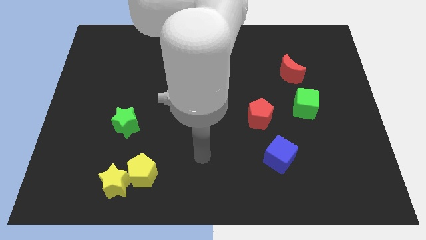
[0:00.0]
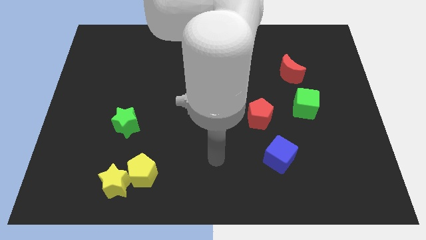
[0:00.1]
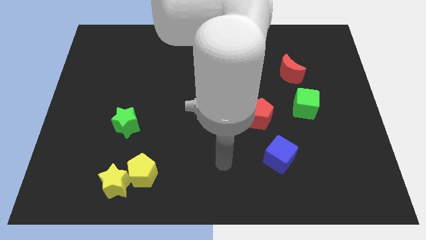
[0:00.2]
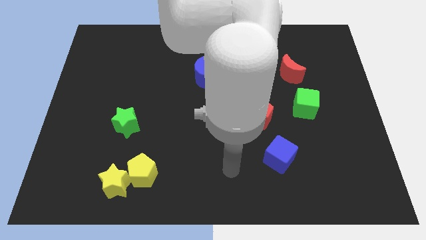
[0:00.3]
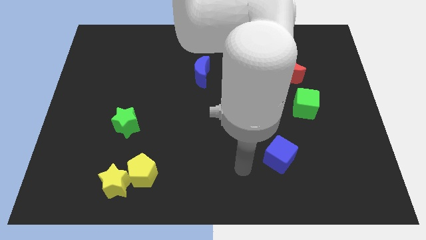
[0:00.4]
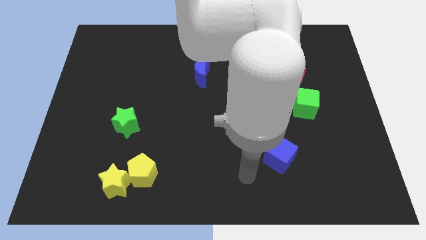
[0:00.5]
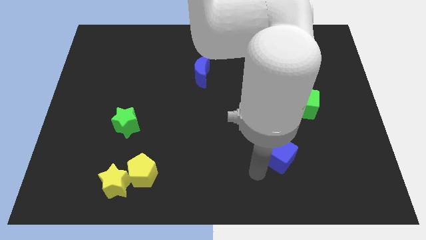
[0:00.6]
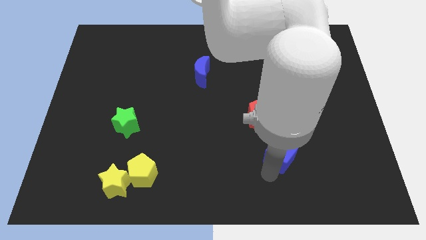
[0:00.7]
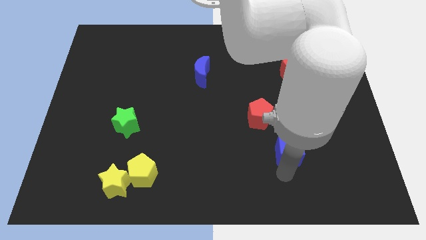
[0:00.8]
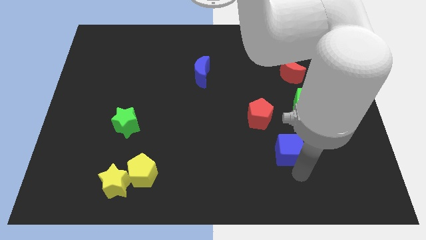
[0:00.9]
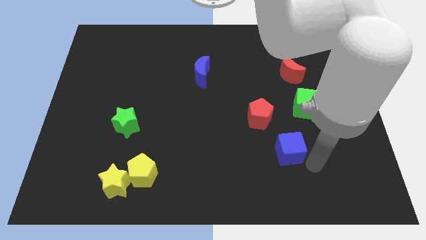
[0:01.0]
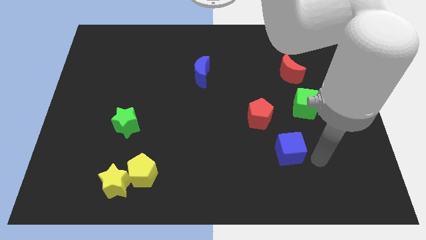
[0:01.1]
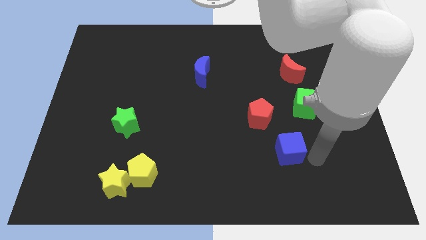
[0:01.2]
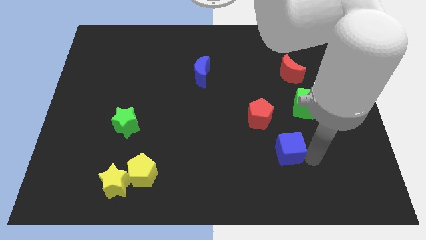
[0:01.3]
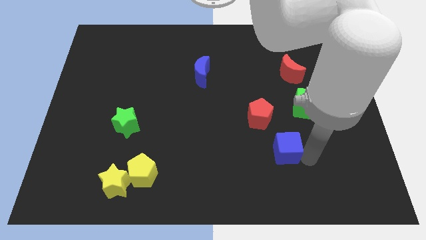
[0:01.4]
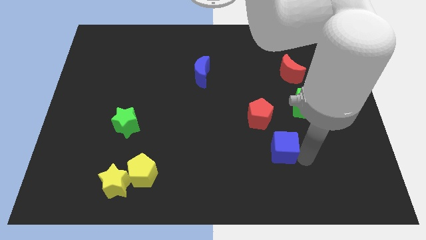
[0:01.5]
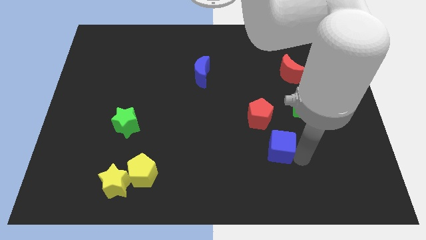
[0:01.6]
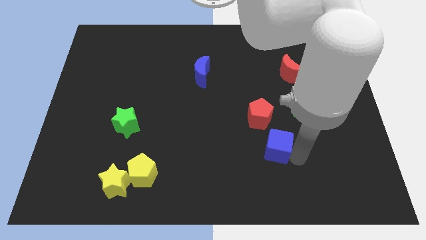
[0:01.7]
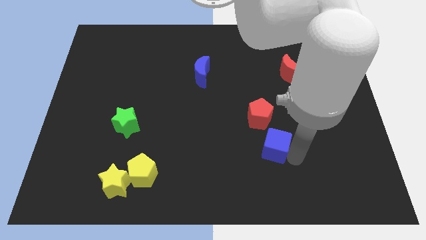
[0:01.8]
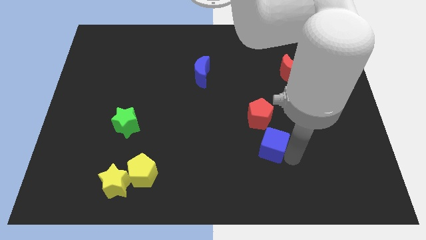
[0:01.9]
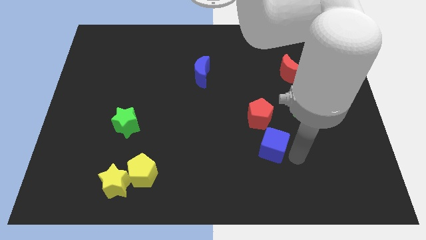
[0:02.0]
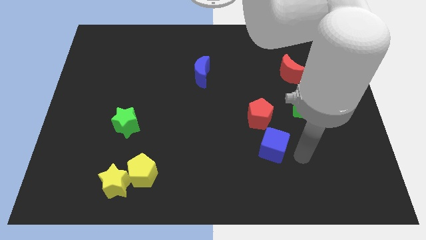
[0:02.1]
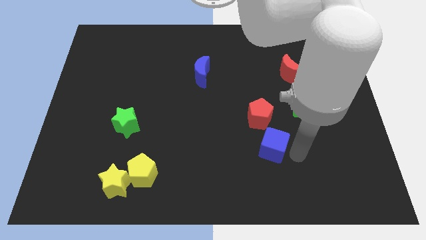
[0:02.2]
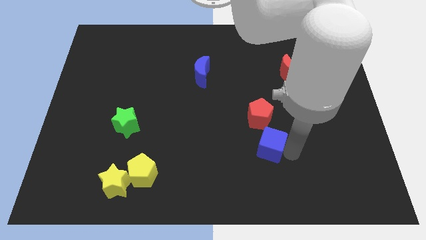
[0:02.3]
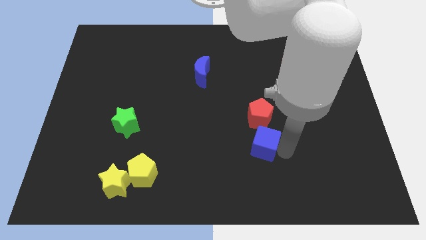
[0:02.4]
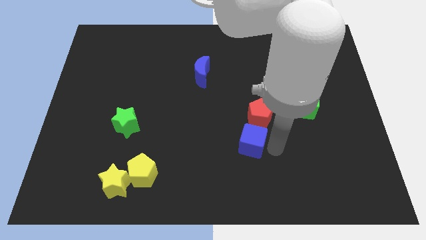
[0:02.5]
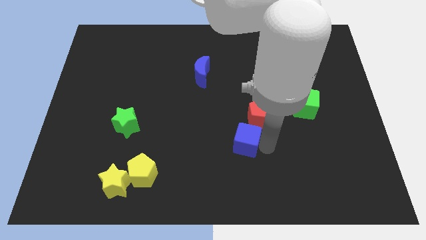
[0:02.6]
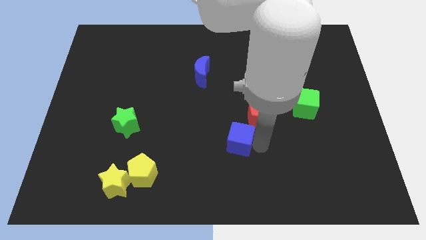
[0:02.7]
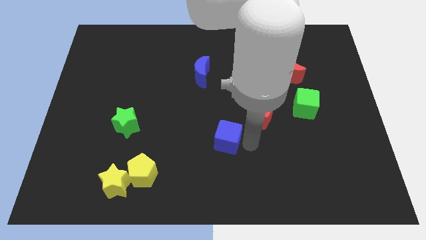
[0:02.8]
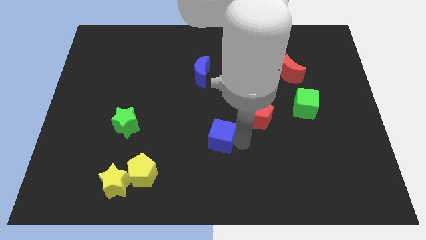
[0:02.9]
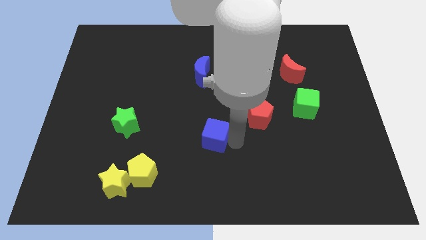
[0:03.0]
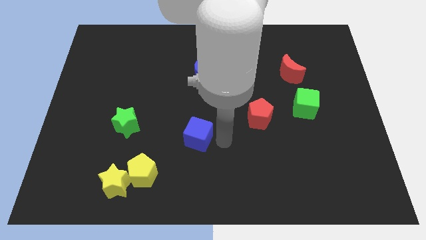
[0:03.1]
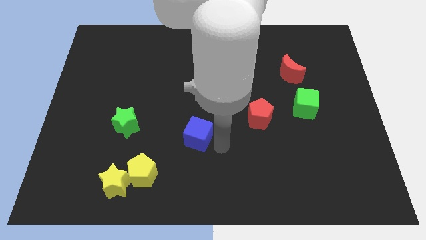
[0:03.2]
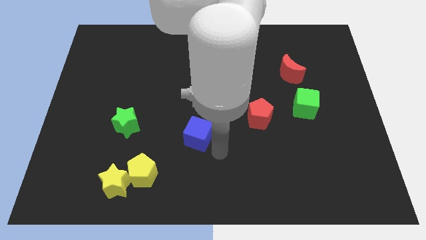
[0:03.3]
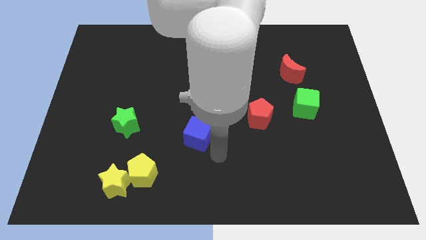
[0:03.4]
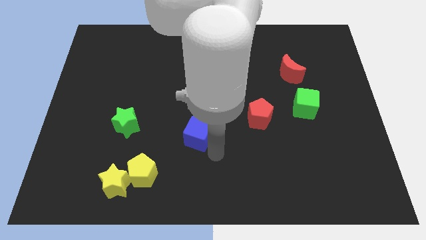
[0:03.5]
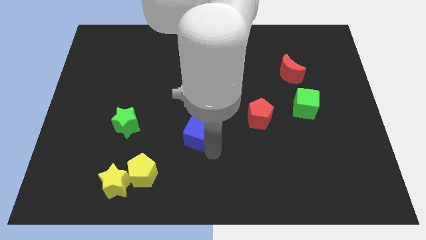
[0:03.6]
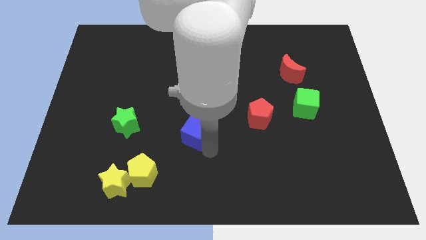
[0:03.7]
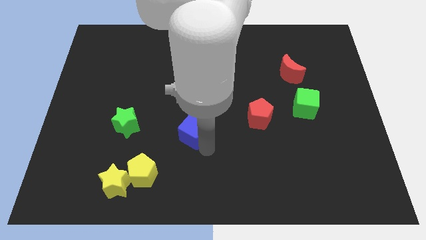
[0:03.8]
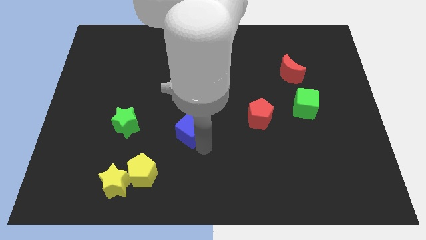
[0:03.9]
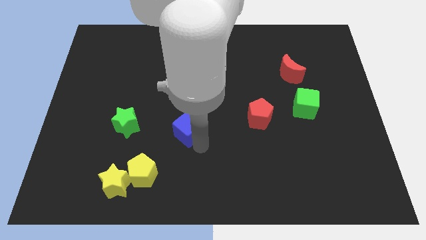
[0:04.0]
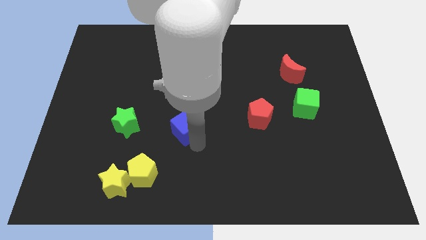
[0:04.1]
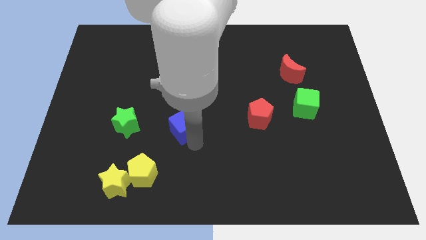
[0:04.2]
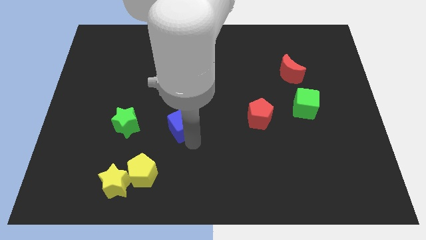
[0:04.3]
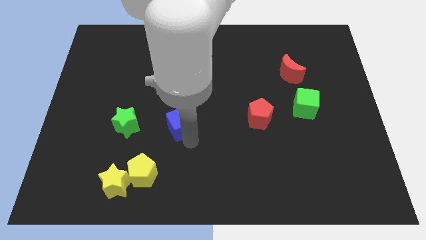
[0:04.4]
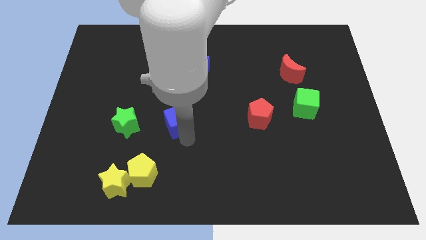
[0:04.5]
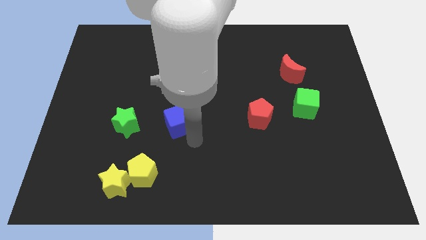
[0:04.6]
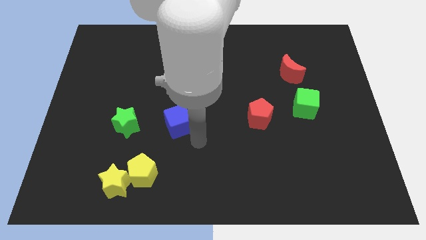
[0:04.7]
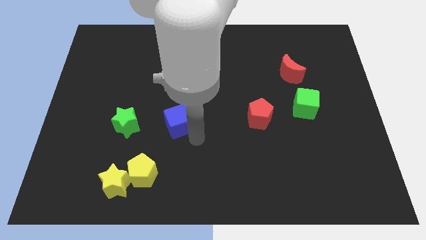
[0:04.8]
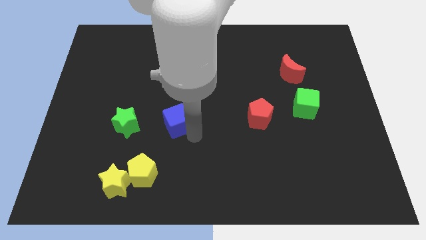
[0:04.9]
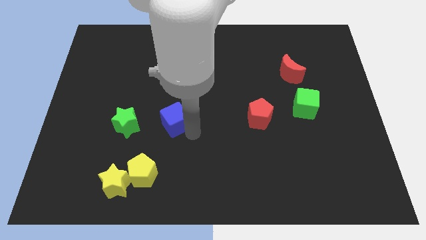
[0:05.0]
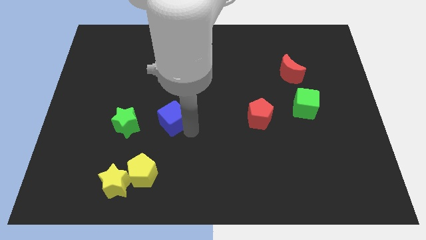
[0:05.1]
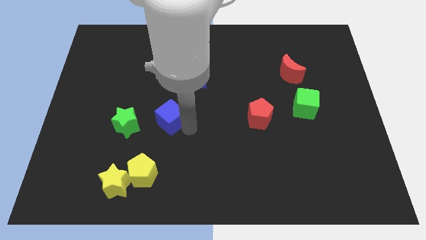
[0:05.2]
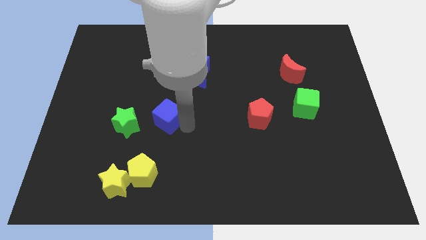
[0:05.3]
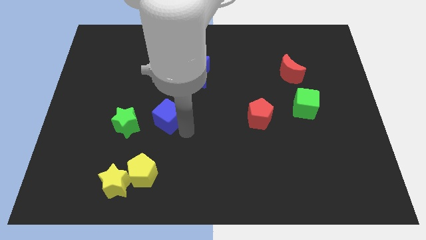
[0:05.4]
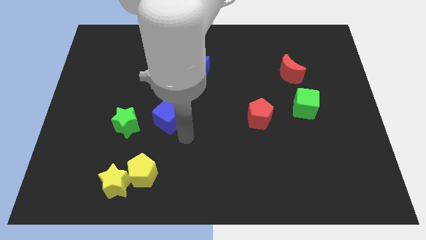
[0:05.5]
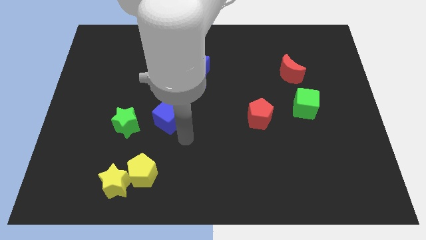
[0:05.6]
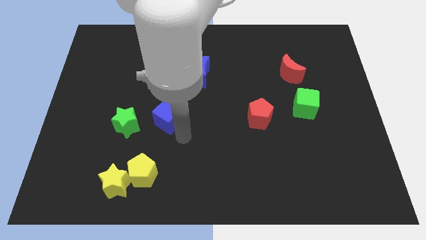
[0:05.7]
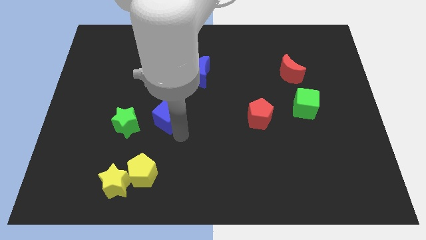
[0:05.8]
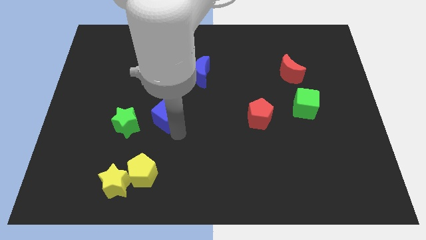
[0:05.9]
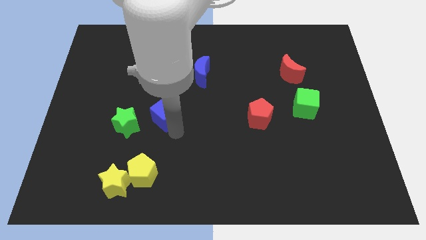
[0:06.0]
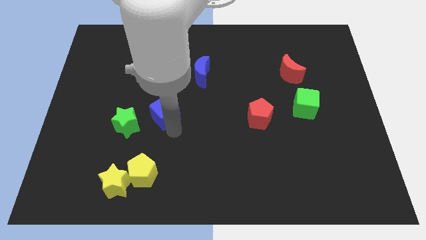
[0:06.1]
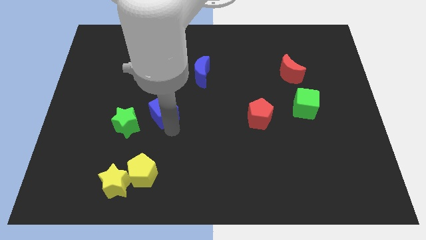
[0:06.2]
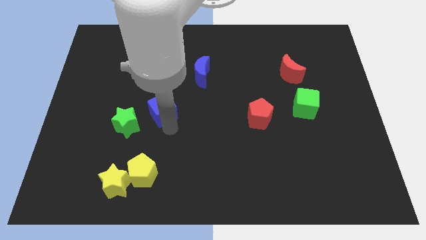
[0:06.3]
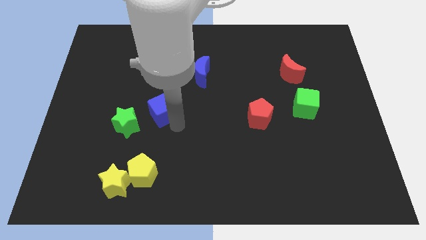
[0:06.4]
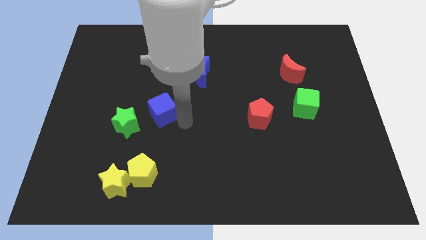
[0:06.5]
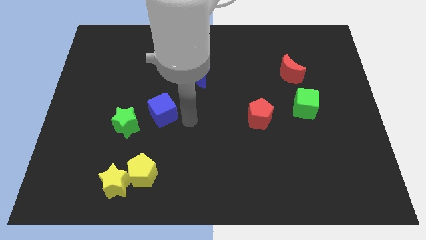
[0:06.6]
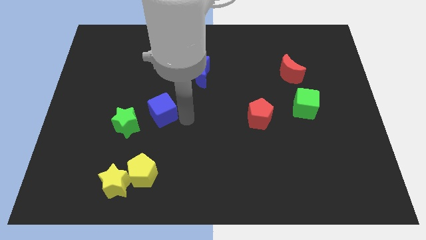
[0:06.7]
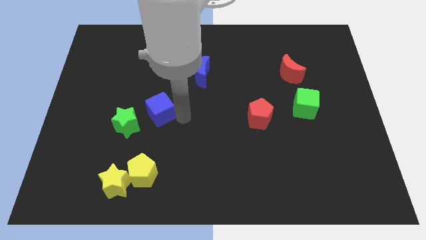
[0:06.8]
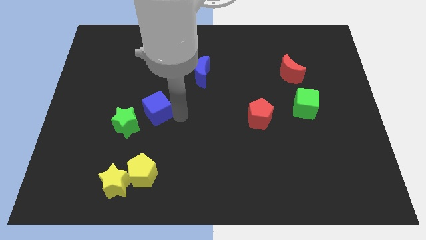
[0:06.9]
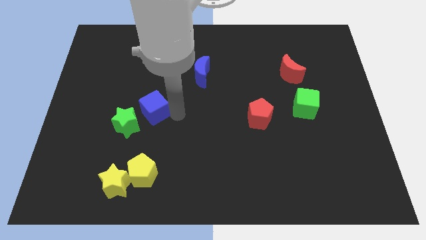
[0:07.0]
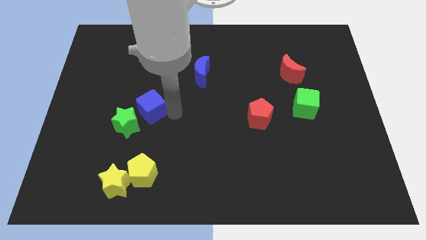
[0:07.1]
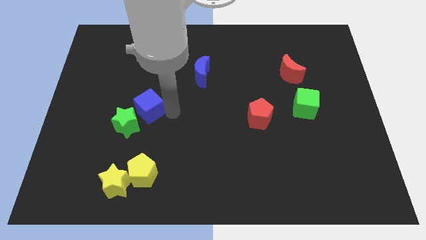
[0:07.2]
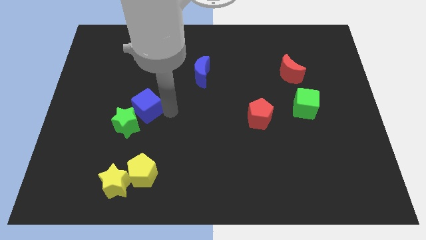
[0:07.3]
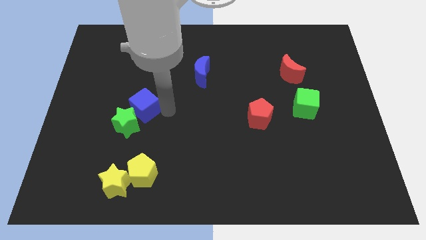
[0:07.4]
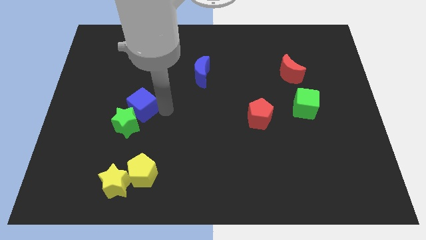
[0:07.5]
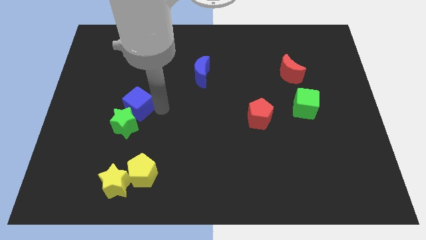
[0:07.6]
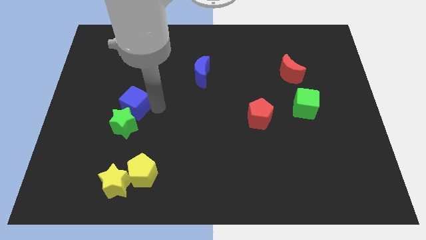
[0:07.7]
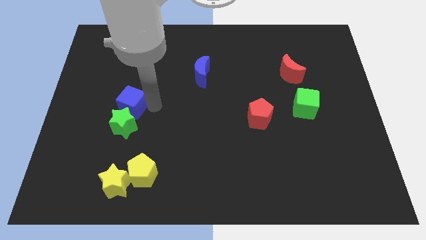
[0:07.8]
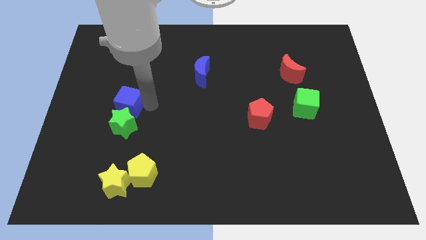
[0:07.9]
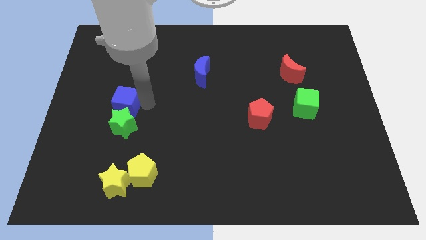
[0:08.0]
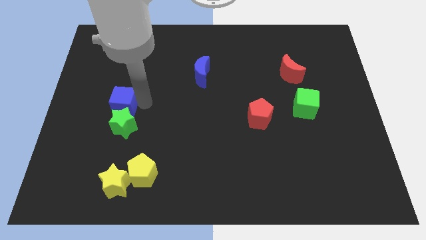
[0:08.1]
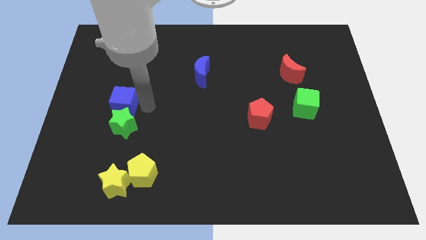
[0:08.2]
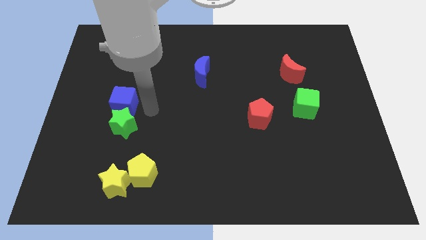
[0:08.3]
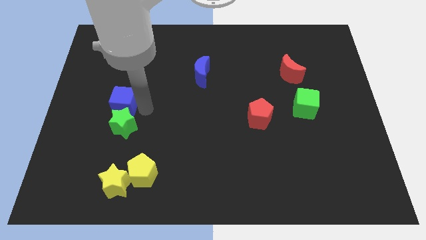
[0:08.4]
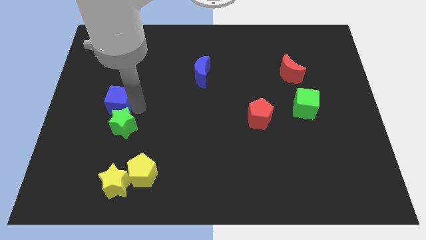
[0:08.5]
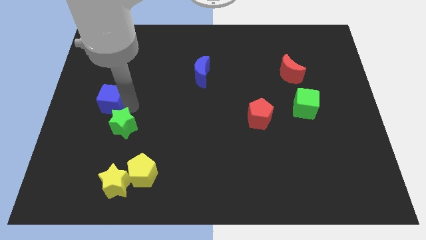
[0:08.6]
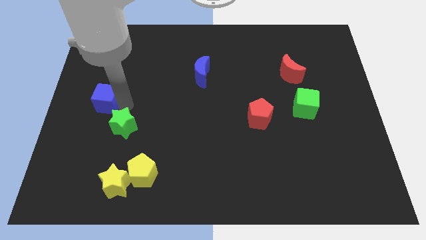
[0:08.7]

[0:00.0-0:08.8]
move the blue cube to the center left
